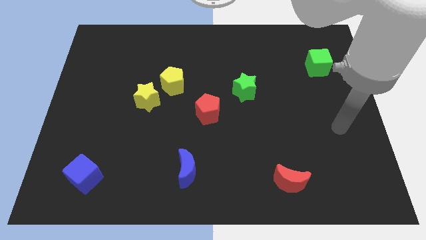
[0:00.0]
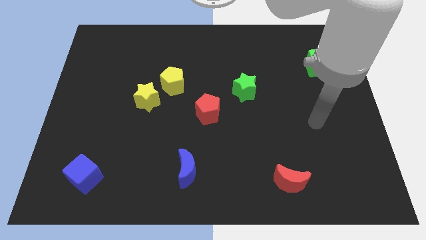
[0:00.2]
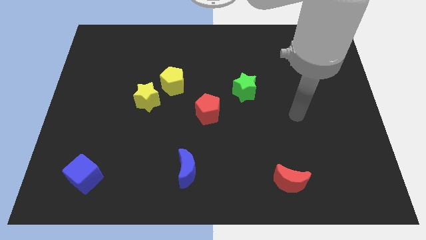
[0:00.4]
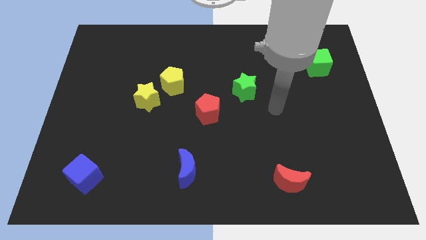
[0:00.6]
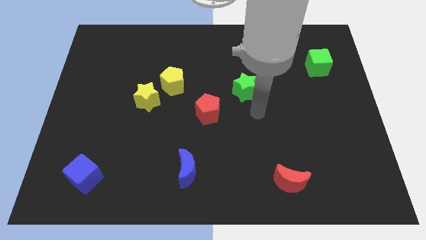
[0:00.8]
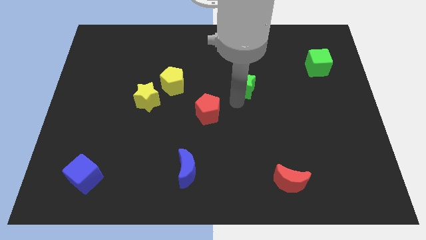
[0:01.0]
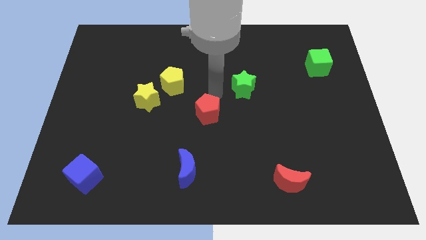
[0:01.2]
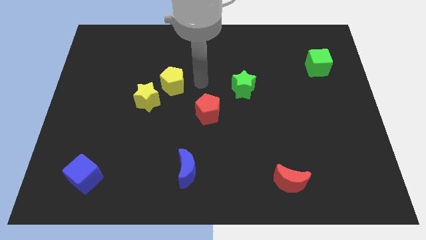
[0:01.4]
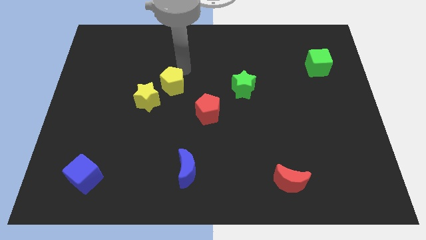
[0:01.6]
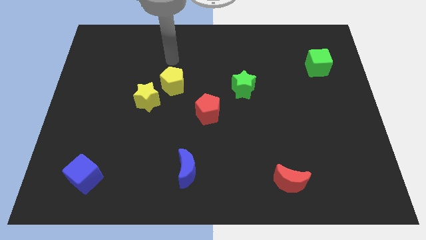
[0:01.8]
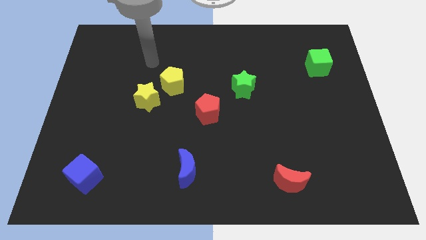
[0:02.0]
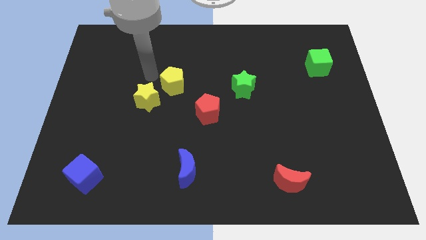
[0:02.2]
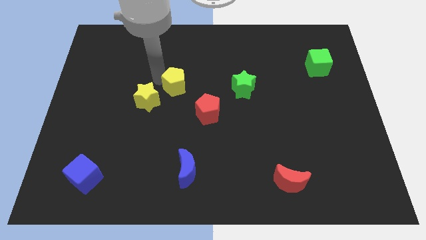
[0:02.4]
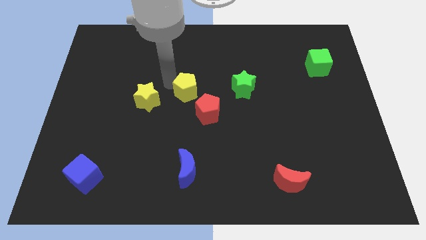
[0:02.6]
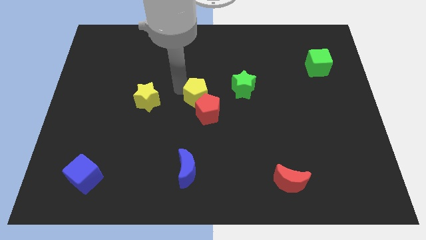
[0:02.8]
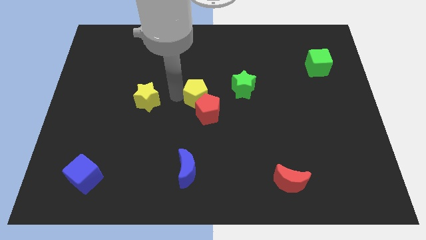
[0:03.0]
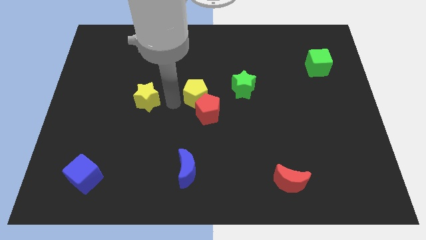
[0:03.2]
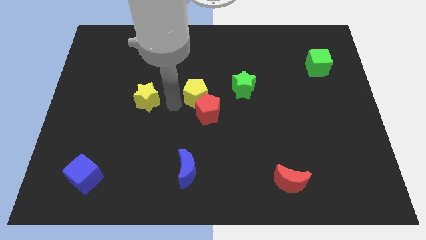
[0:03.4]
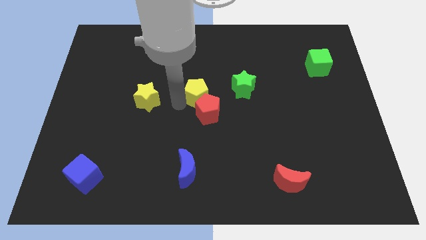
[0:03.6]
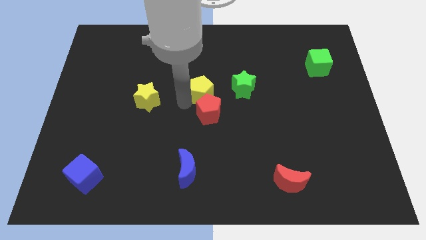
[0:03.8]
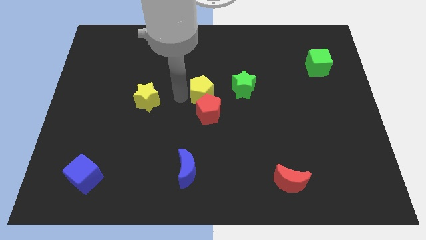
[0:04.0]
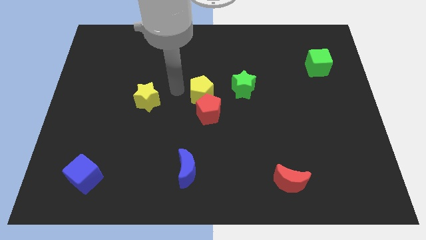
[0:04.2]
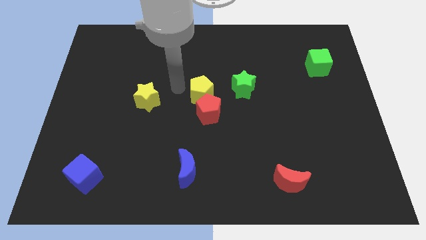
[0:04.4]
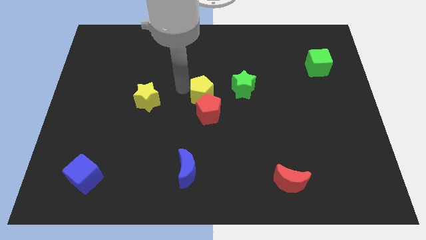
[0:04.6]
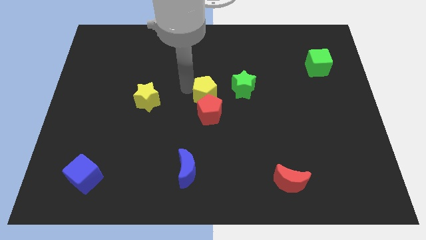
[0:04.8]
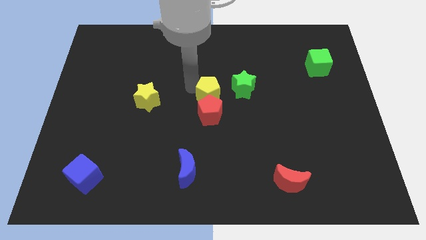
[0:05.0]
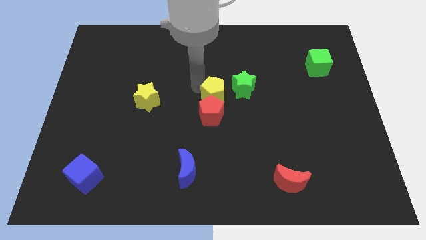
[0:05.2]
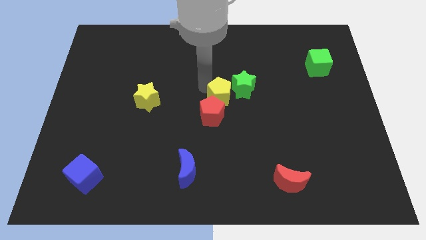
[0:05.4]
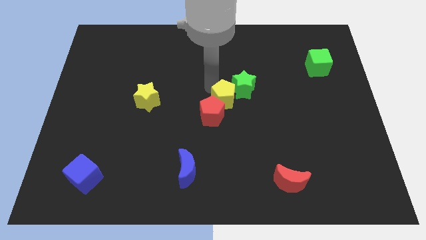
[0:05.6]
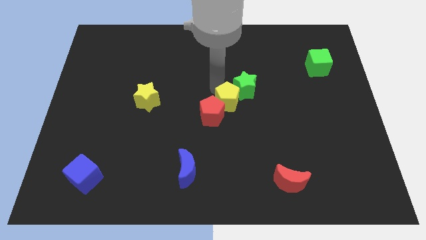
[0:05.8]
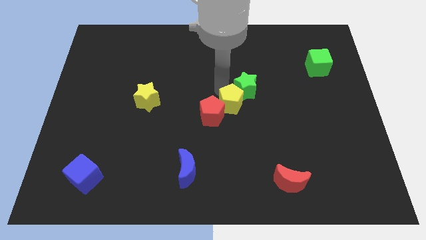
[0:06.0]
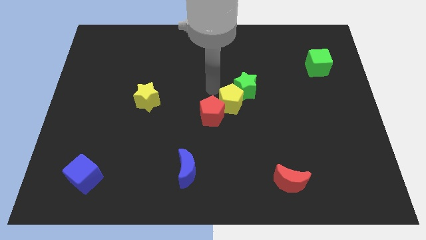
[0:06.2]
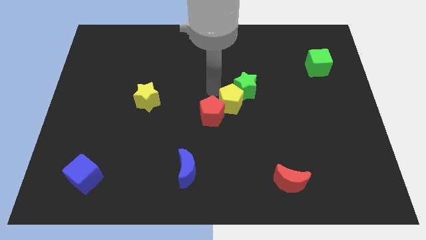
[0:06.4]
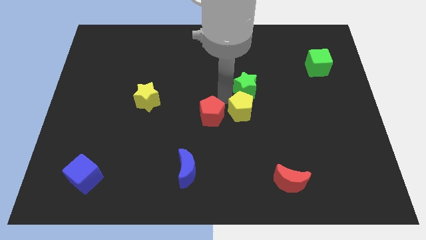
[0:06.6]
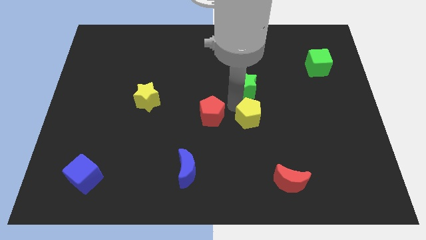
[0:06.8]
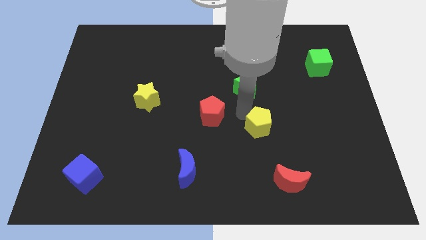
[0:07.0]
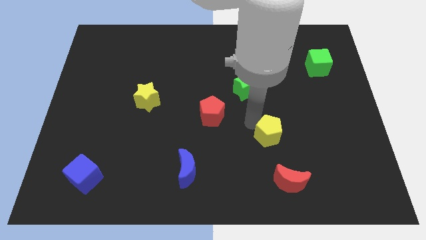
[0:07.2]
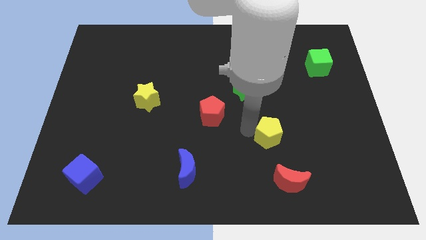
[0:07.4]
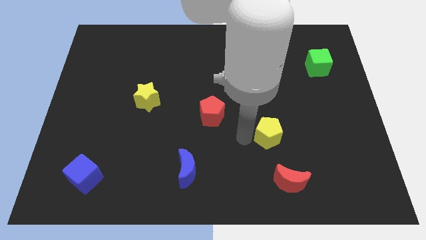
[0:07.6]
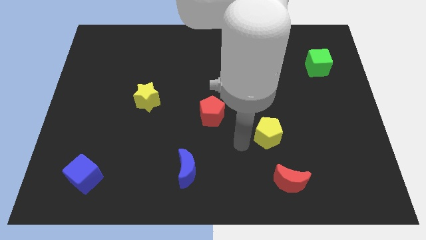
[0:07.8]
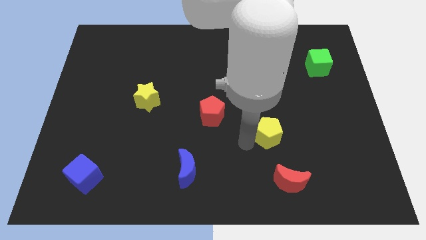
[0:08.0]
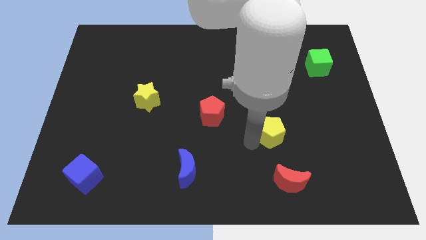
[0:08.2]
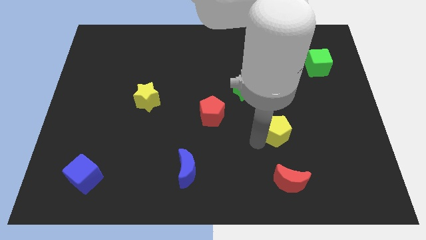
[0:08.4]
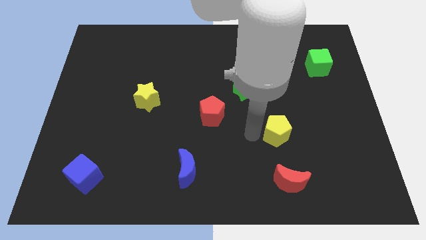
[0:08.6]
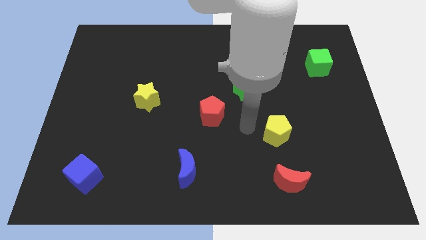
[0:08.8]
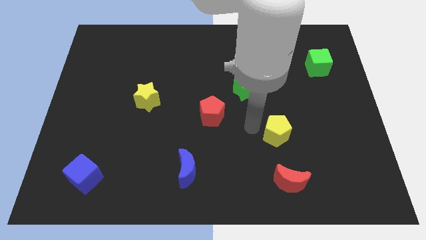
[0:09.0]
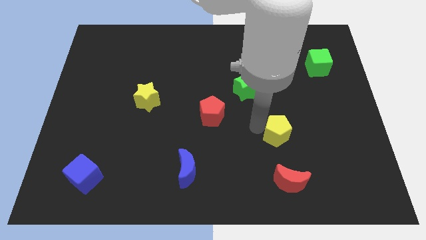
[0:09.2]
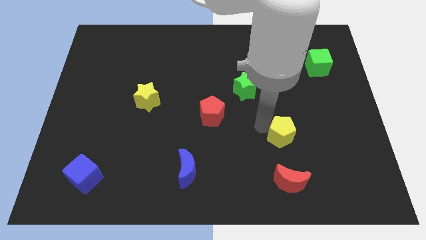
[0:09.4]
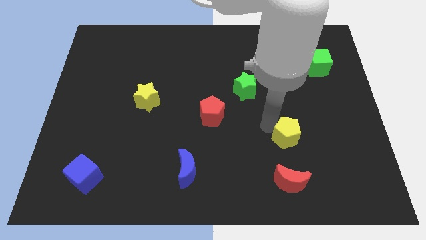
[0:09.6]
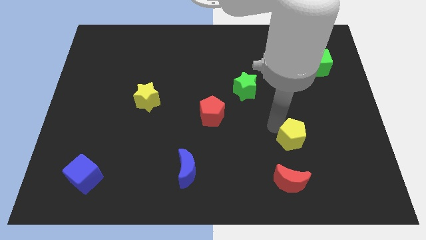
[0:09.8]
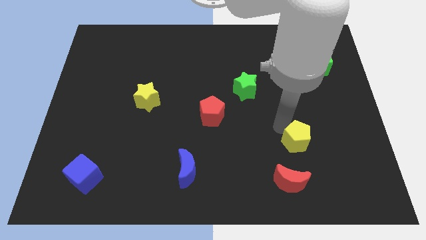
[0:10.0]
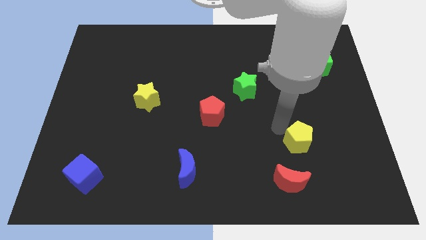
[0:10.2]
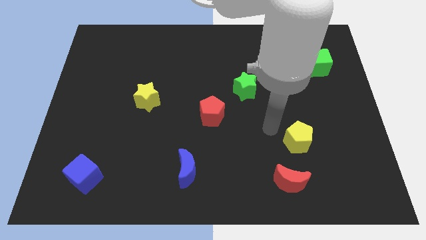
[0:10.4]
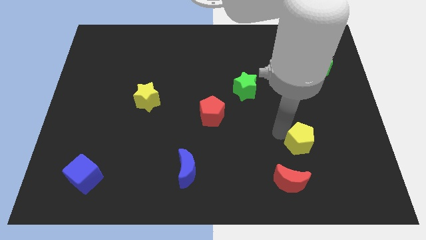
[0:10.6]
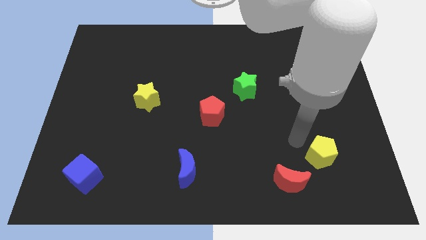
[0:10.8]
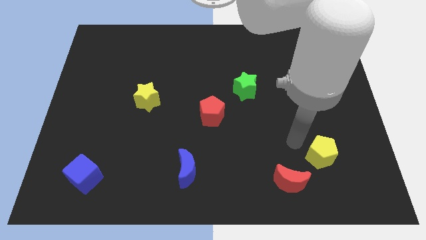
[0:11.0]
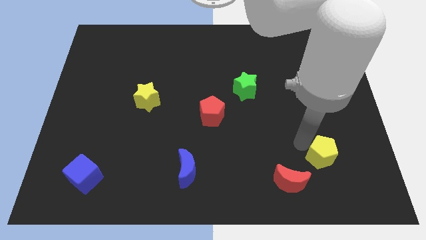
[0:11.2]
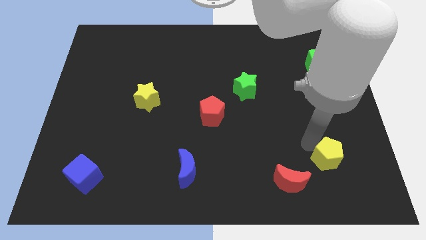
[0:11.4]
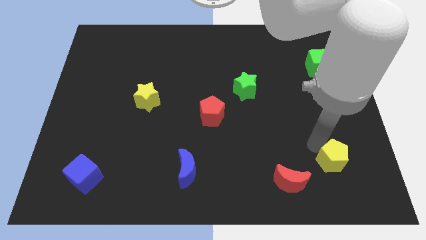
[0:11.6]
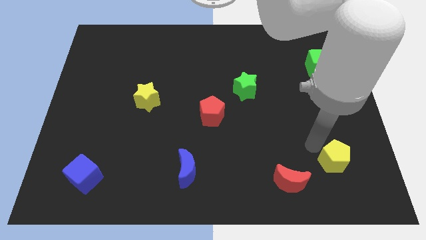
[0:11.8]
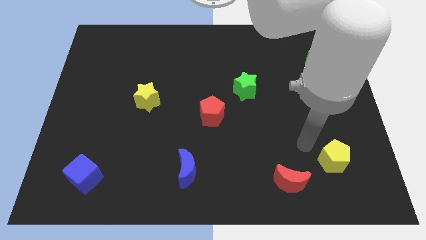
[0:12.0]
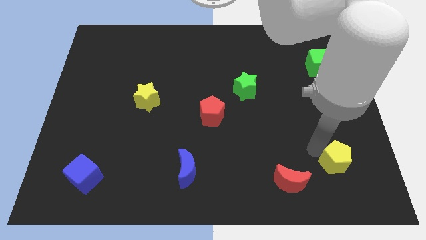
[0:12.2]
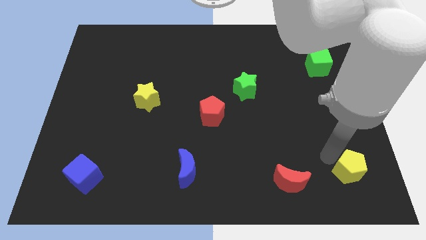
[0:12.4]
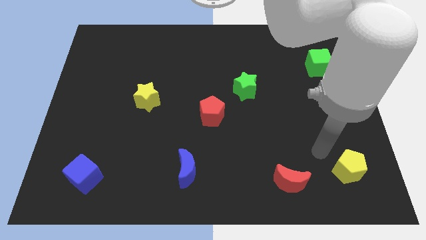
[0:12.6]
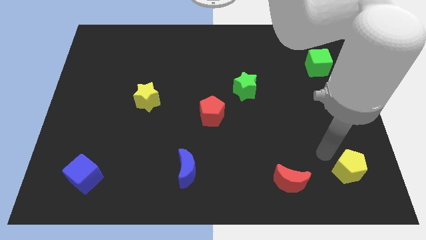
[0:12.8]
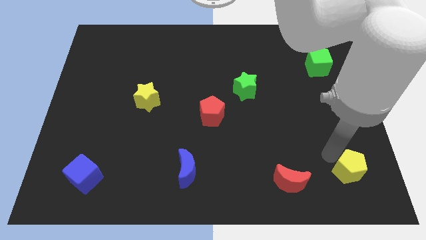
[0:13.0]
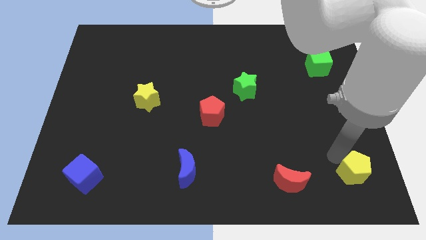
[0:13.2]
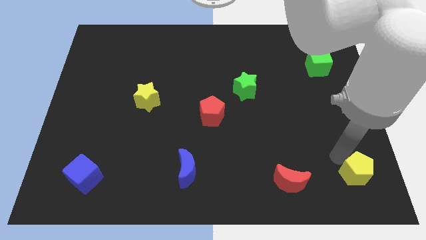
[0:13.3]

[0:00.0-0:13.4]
move the yellow pentagon to the bottom right
